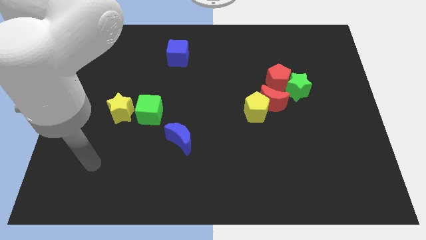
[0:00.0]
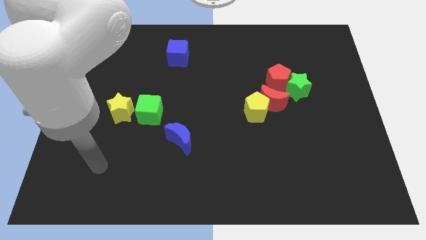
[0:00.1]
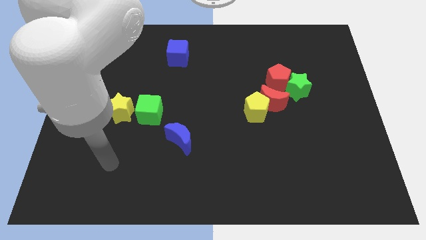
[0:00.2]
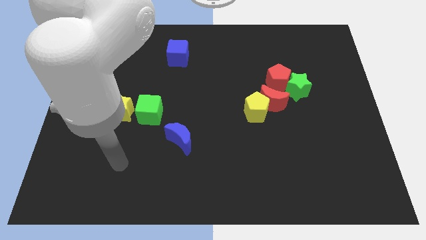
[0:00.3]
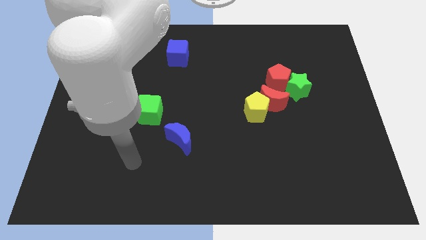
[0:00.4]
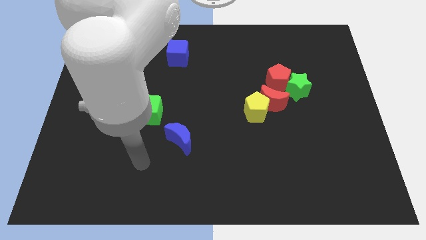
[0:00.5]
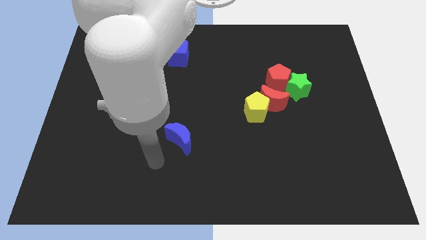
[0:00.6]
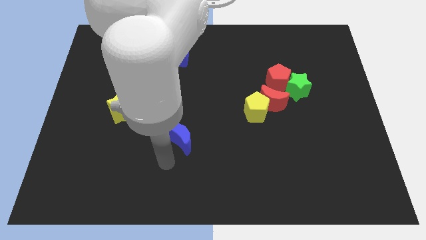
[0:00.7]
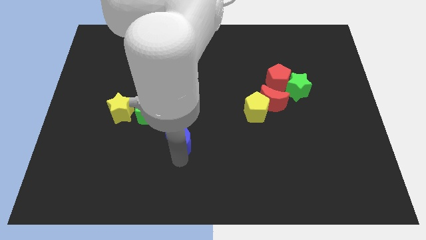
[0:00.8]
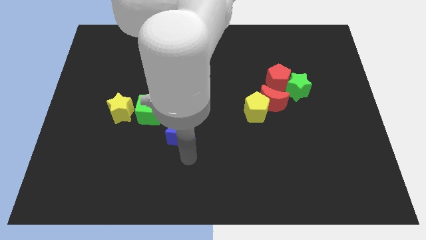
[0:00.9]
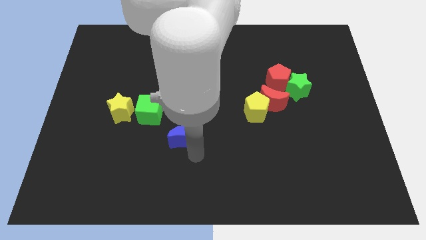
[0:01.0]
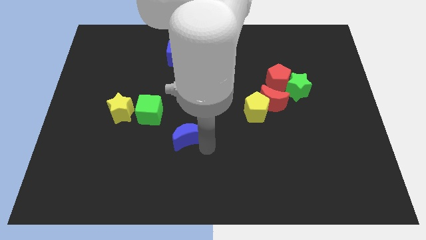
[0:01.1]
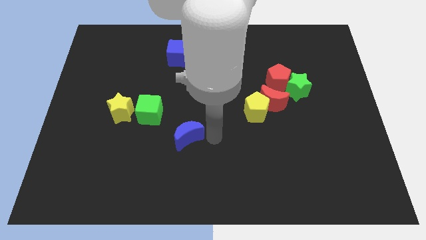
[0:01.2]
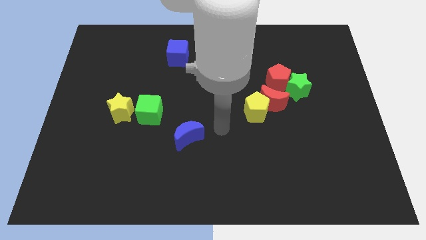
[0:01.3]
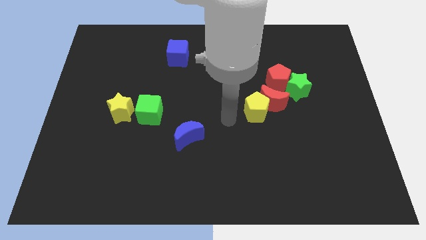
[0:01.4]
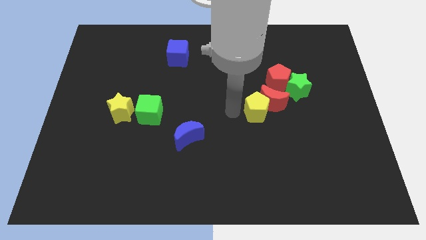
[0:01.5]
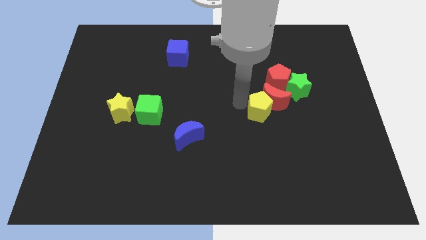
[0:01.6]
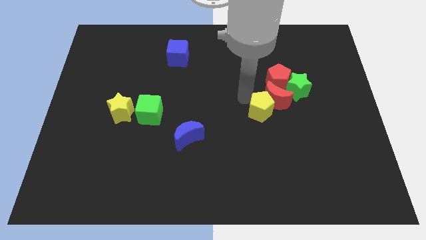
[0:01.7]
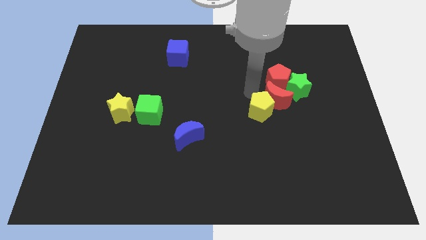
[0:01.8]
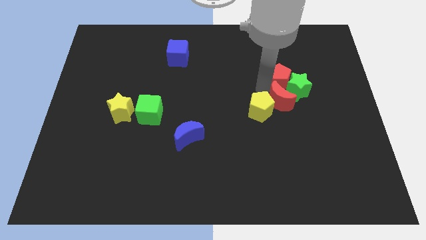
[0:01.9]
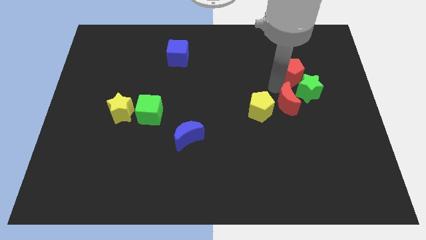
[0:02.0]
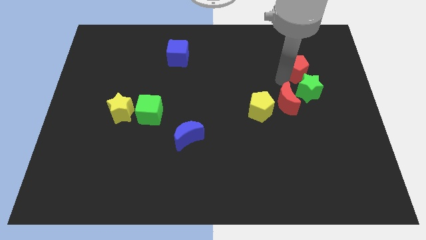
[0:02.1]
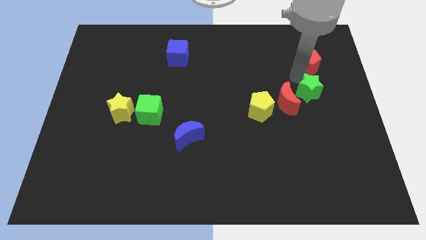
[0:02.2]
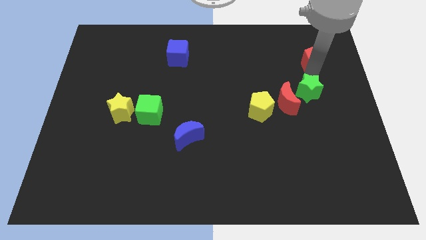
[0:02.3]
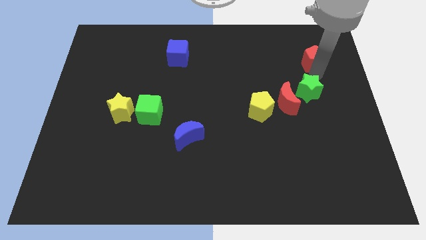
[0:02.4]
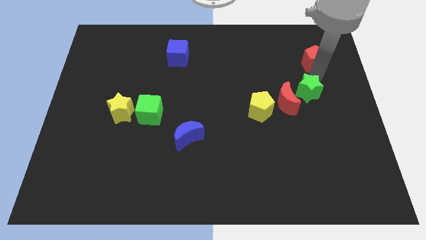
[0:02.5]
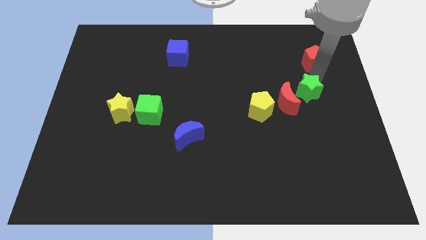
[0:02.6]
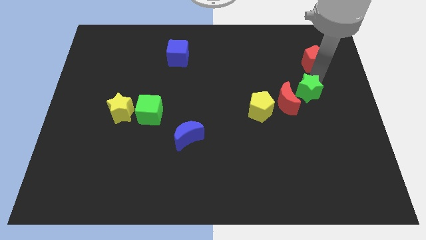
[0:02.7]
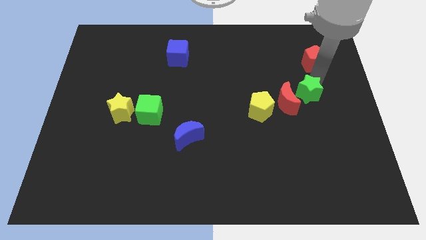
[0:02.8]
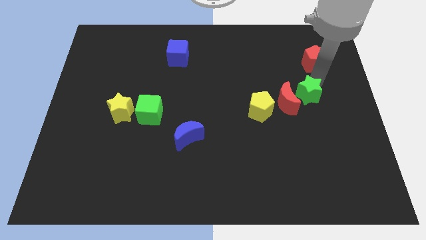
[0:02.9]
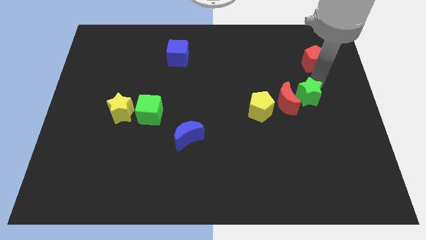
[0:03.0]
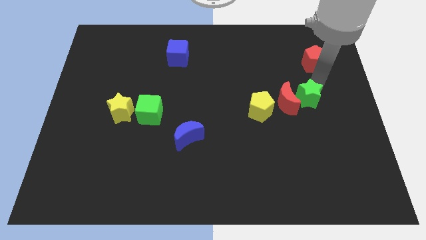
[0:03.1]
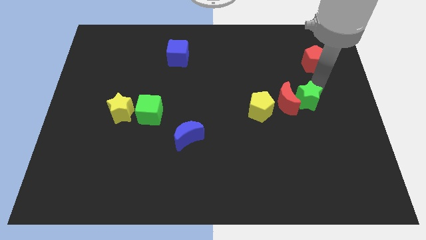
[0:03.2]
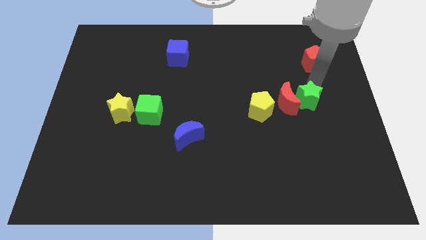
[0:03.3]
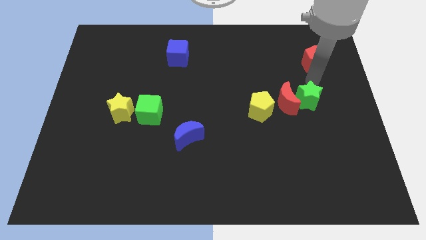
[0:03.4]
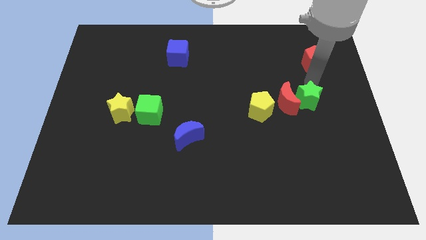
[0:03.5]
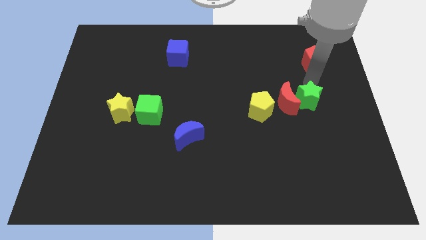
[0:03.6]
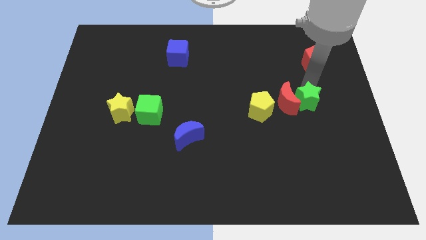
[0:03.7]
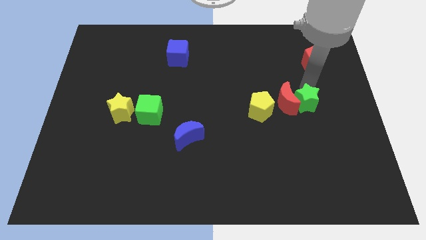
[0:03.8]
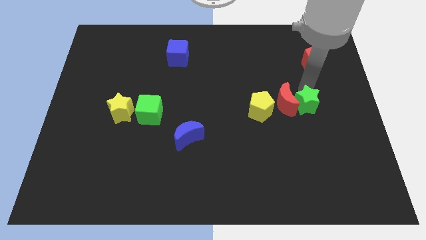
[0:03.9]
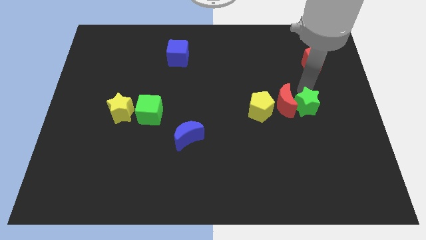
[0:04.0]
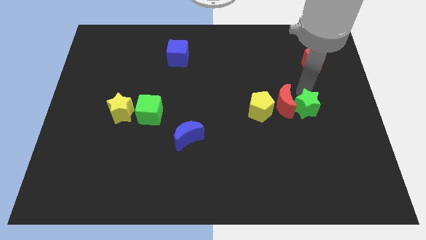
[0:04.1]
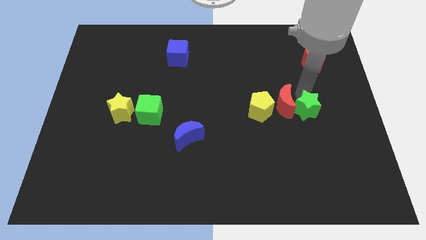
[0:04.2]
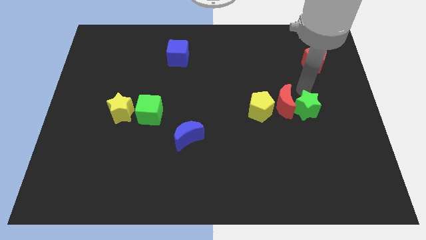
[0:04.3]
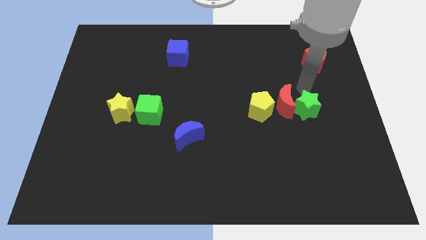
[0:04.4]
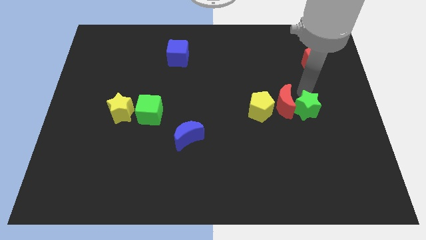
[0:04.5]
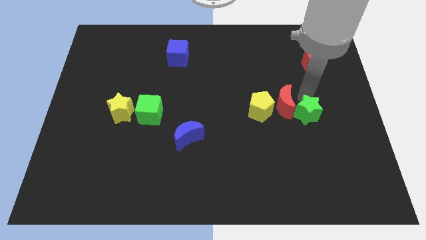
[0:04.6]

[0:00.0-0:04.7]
push the green star down slightly

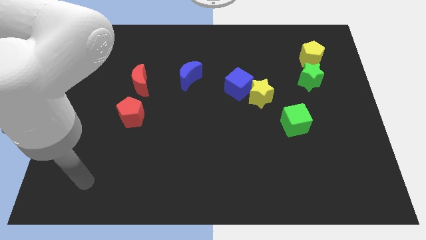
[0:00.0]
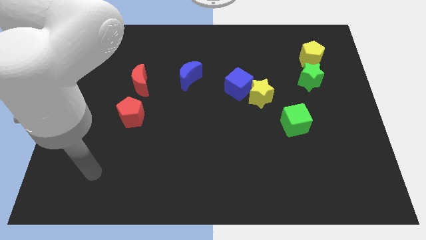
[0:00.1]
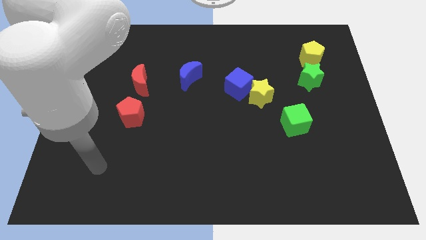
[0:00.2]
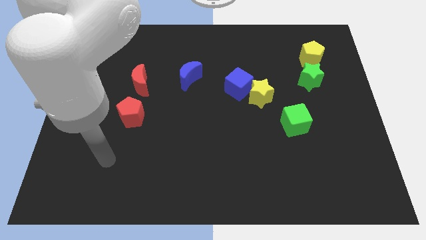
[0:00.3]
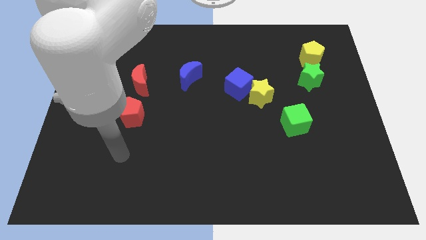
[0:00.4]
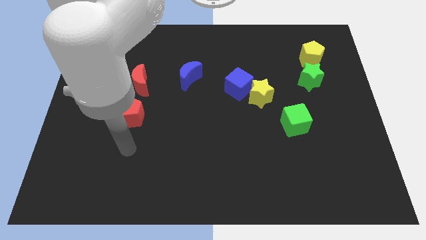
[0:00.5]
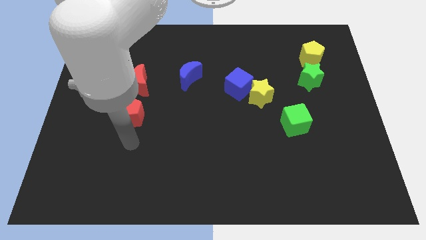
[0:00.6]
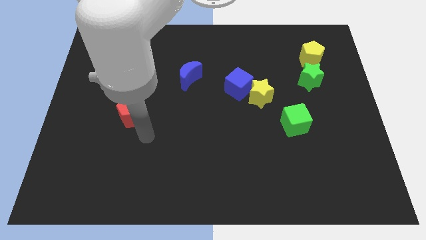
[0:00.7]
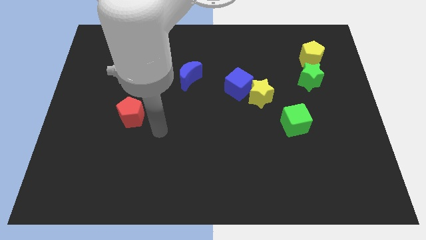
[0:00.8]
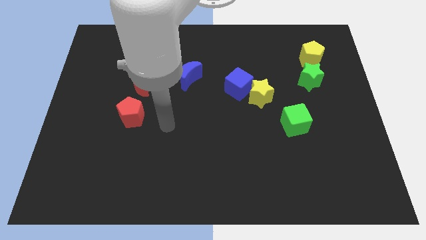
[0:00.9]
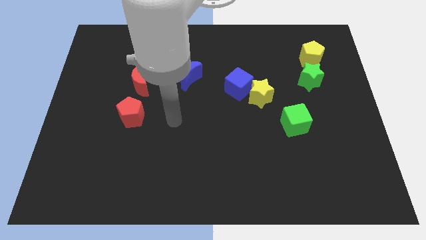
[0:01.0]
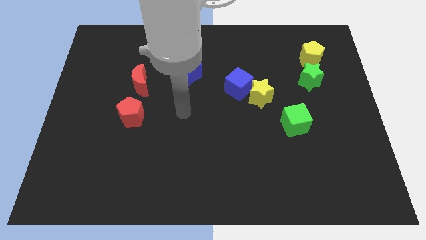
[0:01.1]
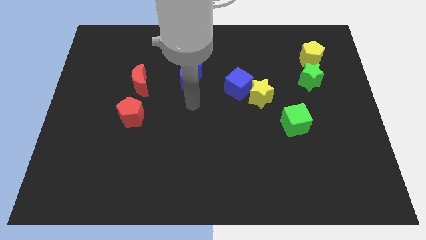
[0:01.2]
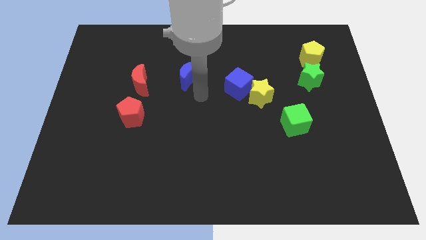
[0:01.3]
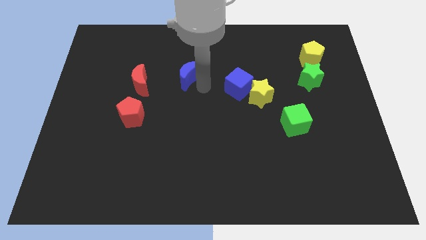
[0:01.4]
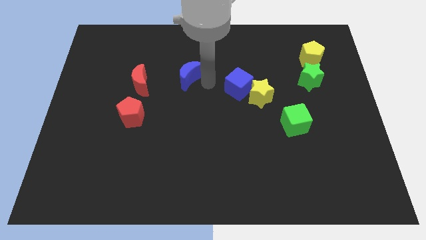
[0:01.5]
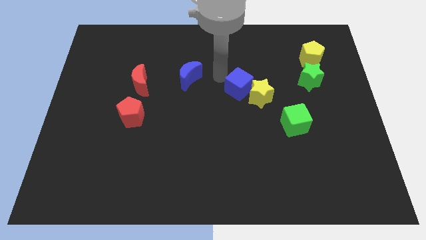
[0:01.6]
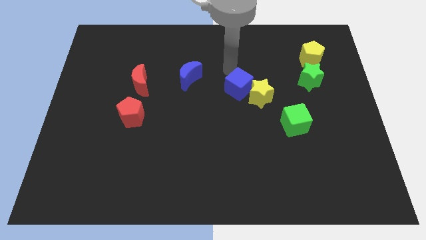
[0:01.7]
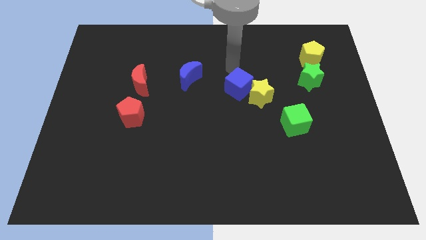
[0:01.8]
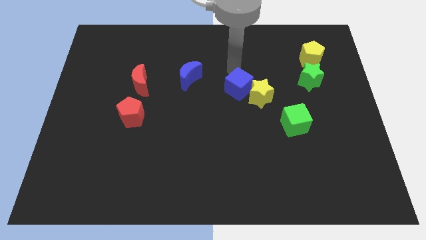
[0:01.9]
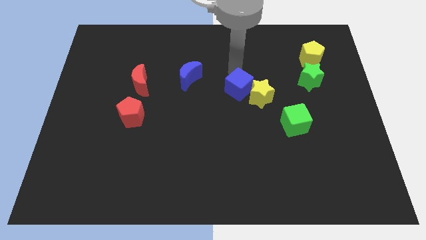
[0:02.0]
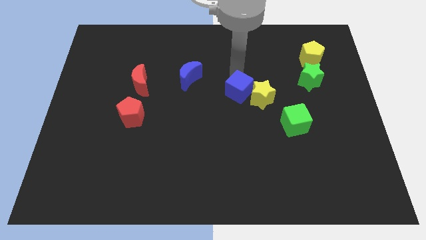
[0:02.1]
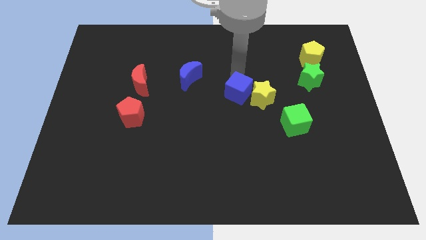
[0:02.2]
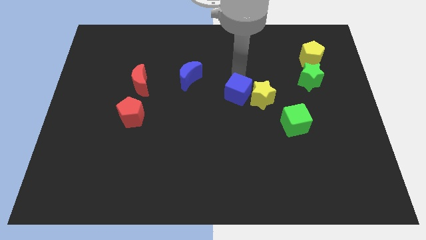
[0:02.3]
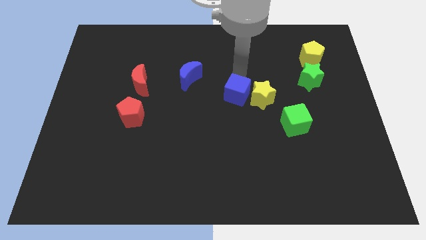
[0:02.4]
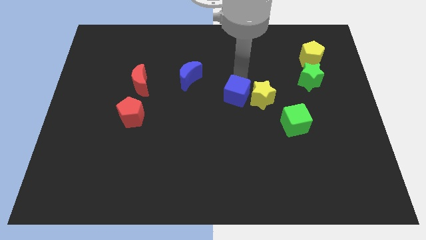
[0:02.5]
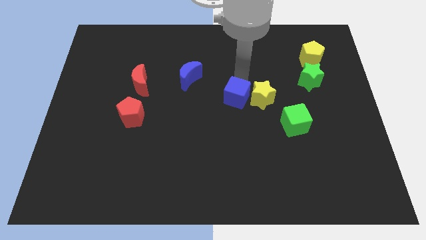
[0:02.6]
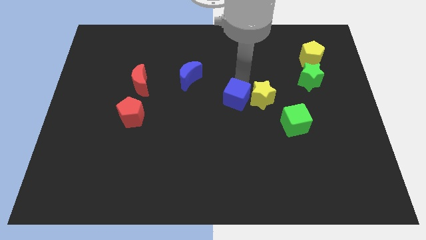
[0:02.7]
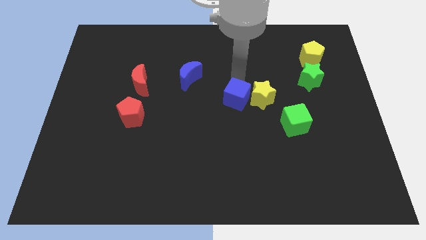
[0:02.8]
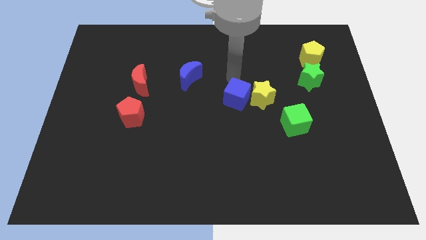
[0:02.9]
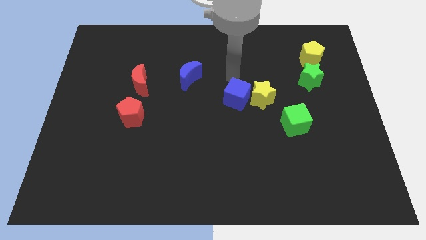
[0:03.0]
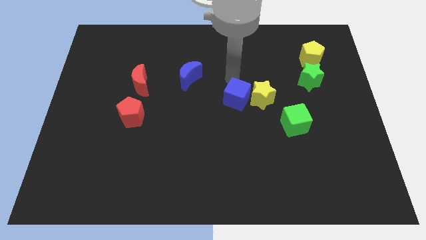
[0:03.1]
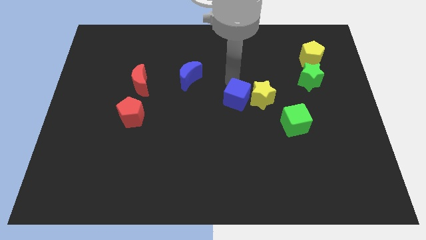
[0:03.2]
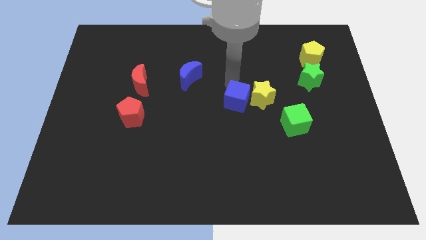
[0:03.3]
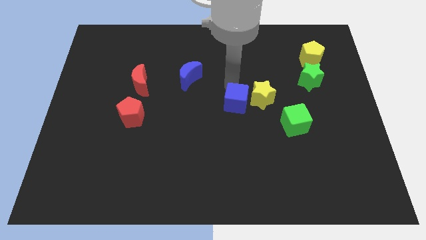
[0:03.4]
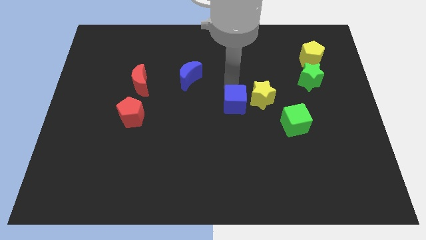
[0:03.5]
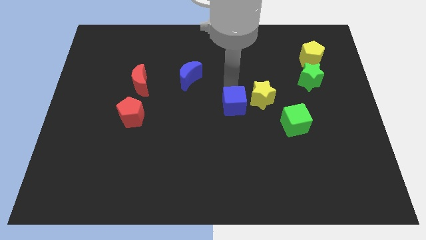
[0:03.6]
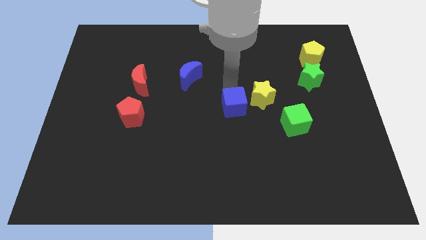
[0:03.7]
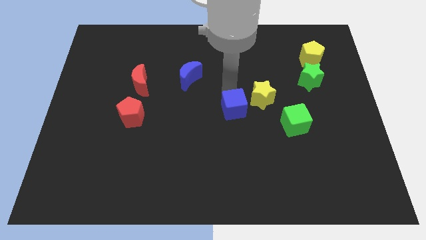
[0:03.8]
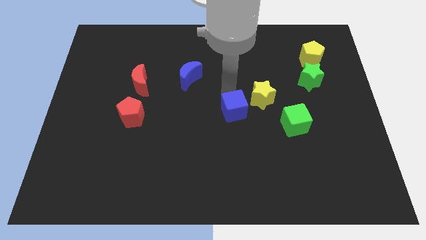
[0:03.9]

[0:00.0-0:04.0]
push the blue cube down slightly
